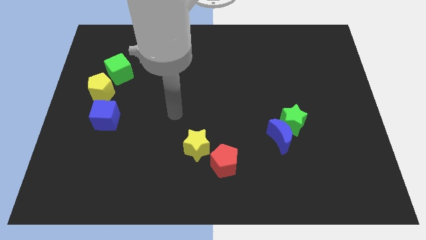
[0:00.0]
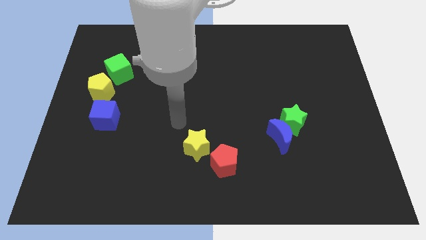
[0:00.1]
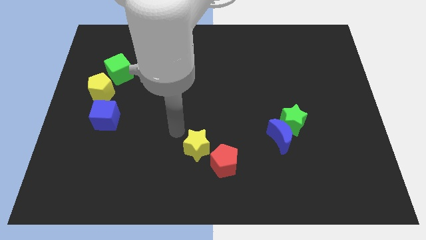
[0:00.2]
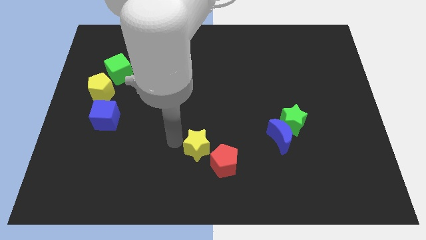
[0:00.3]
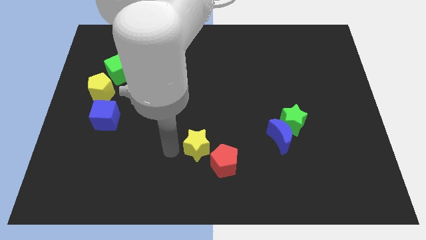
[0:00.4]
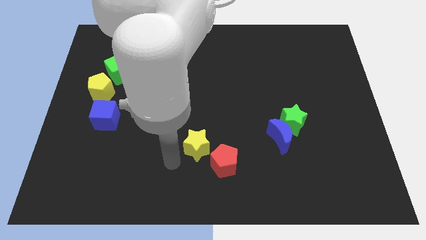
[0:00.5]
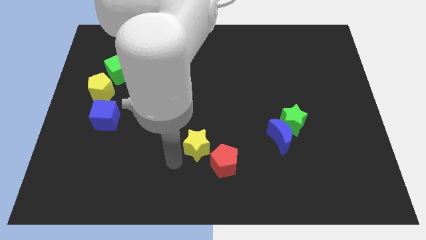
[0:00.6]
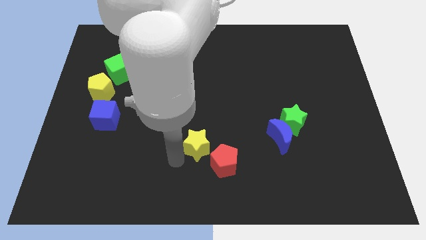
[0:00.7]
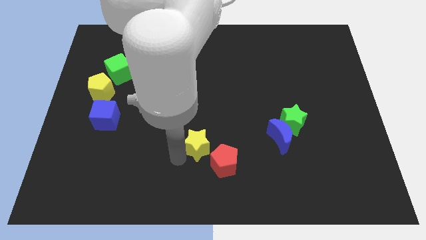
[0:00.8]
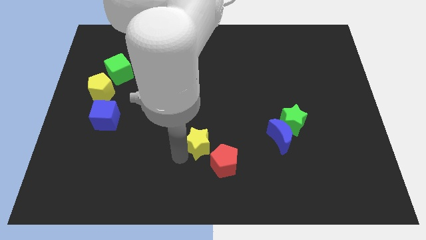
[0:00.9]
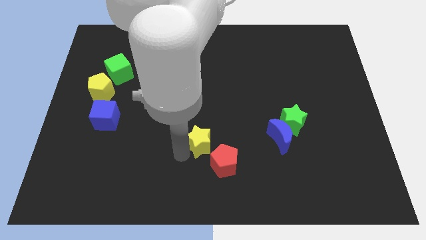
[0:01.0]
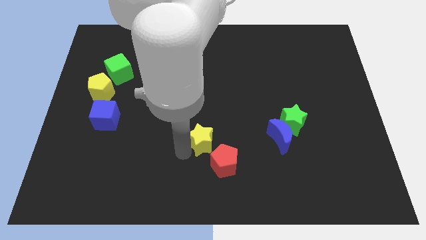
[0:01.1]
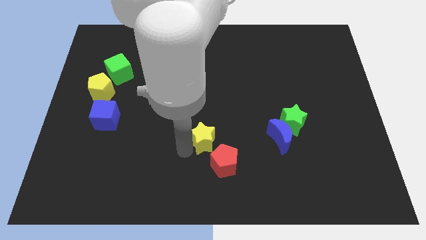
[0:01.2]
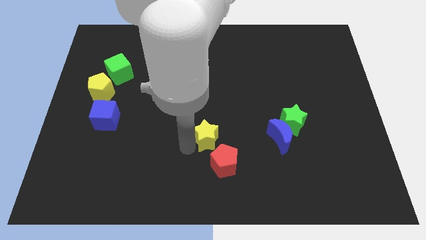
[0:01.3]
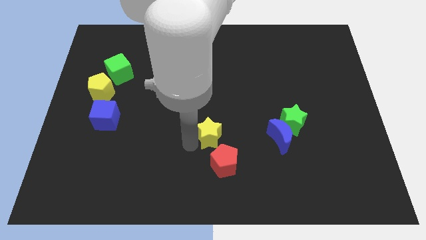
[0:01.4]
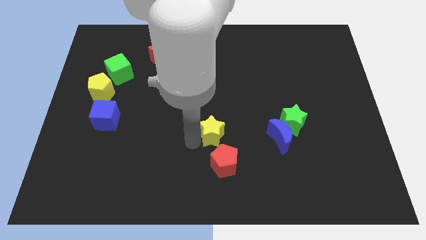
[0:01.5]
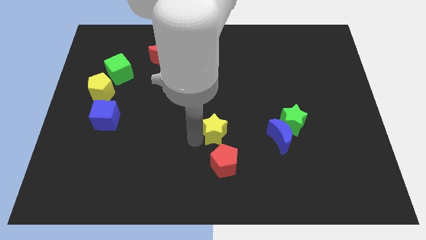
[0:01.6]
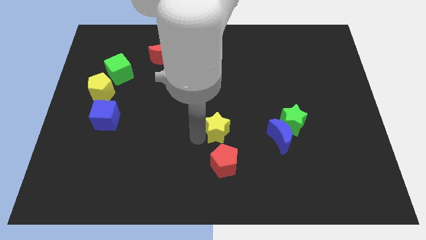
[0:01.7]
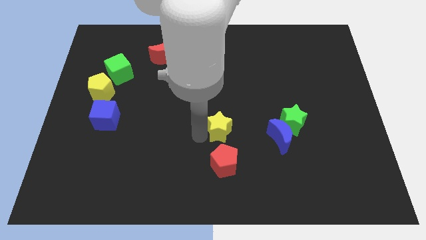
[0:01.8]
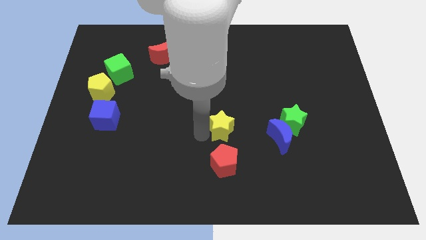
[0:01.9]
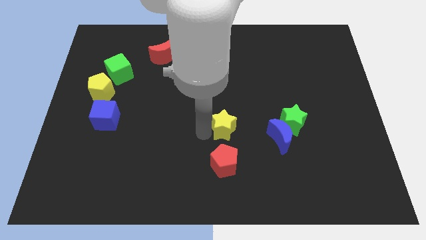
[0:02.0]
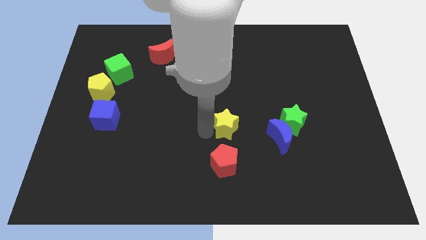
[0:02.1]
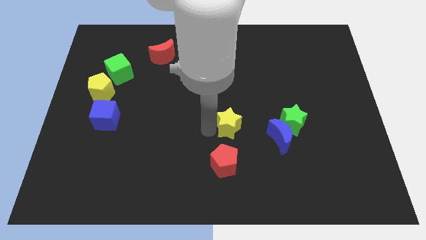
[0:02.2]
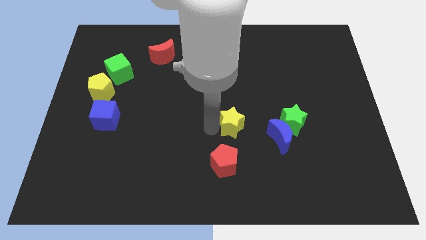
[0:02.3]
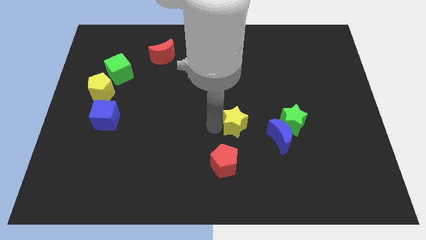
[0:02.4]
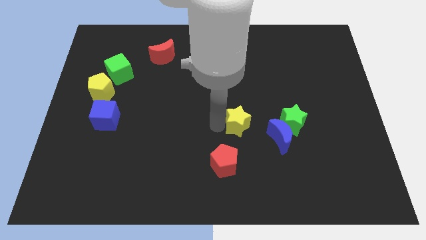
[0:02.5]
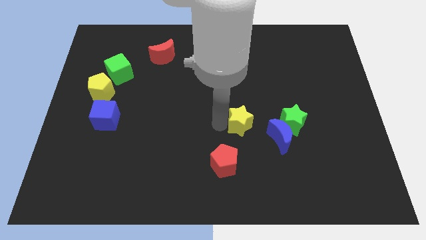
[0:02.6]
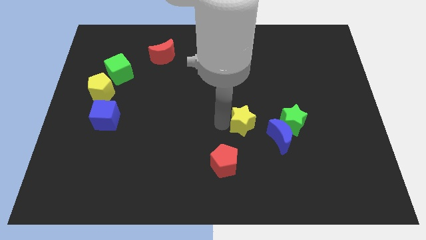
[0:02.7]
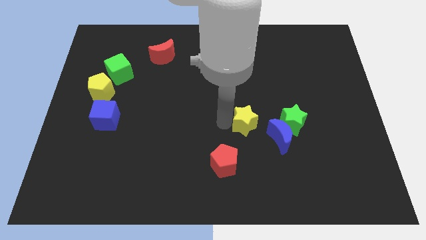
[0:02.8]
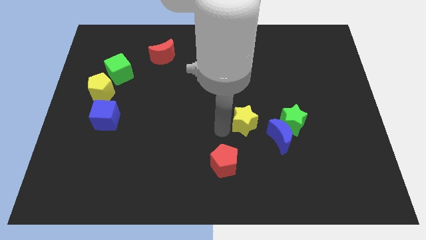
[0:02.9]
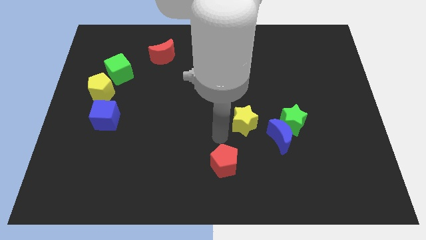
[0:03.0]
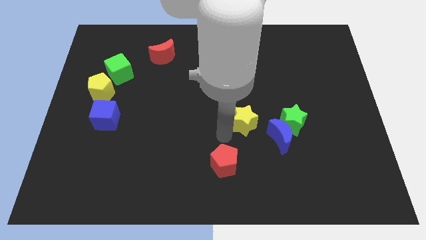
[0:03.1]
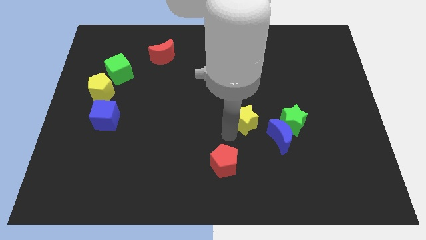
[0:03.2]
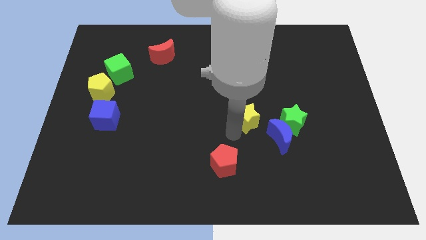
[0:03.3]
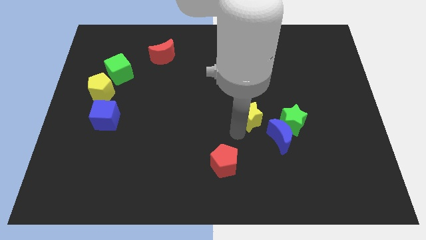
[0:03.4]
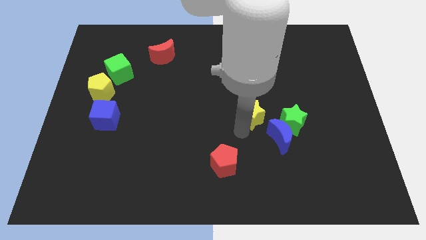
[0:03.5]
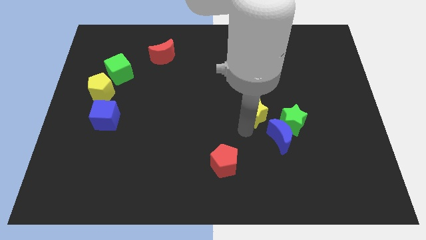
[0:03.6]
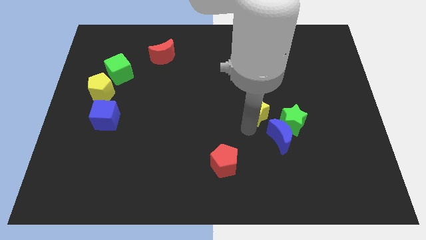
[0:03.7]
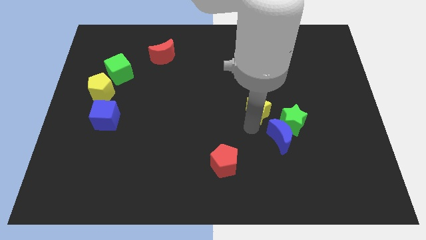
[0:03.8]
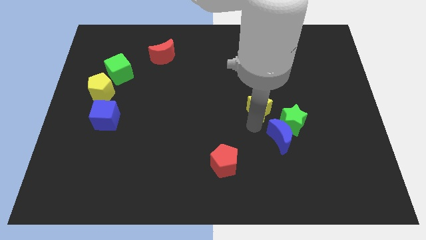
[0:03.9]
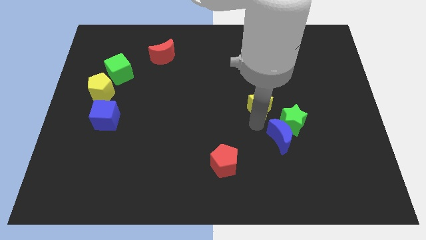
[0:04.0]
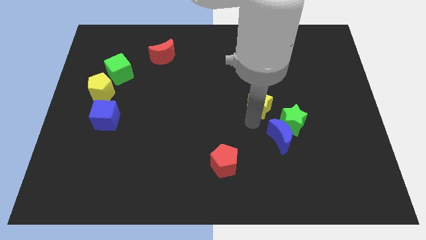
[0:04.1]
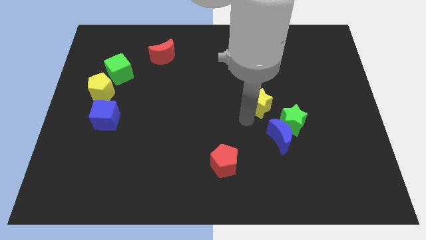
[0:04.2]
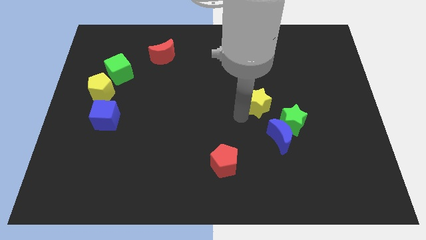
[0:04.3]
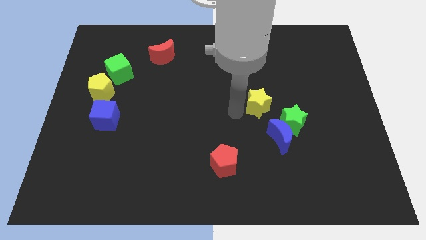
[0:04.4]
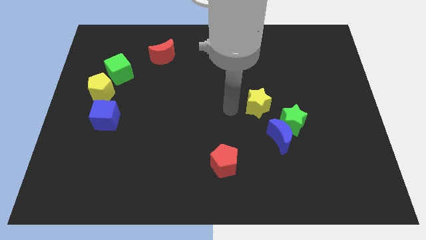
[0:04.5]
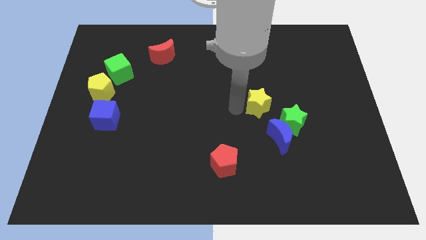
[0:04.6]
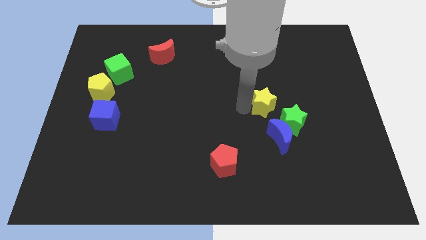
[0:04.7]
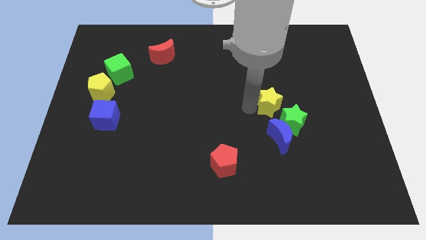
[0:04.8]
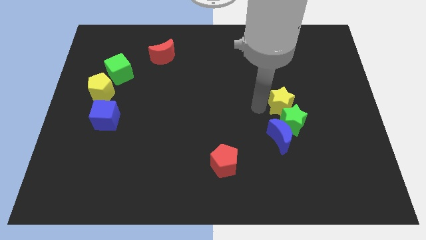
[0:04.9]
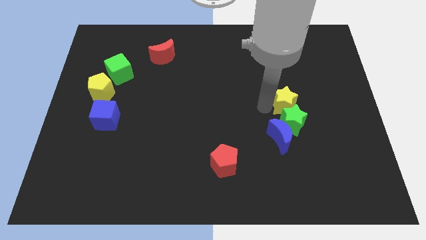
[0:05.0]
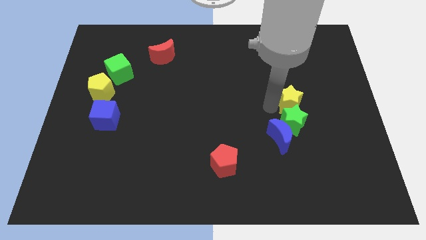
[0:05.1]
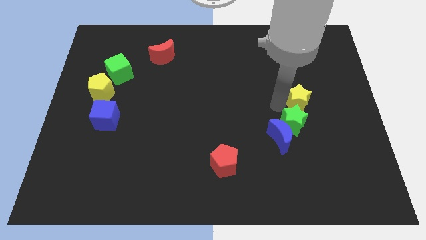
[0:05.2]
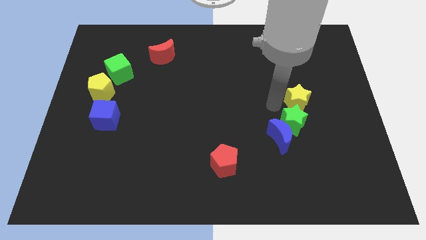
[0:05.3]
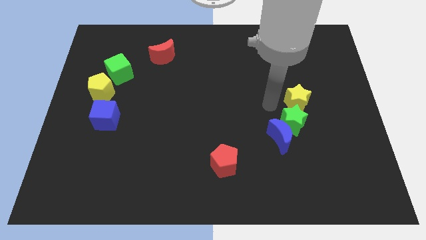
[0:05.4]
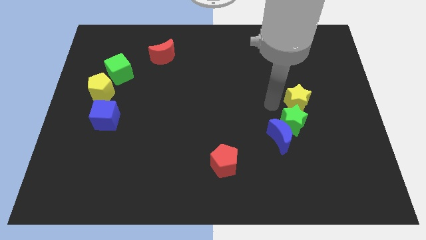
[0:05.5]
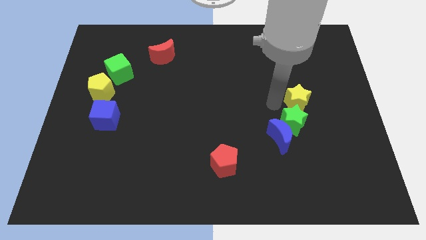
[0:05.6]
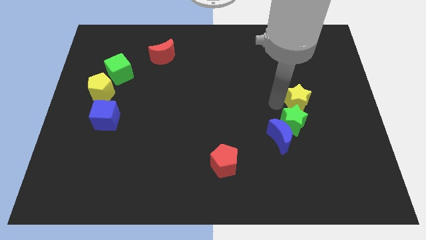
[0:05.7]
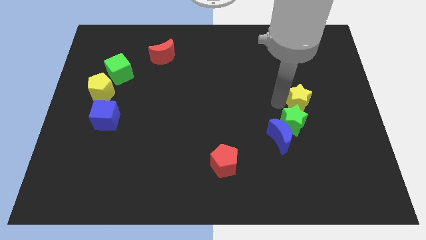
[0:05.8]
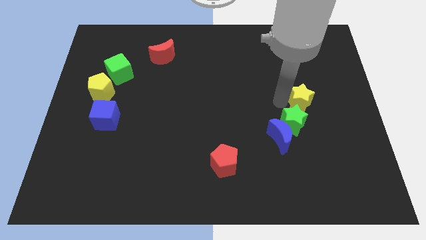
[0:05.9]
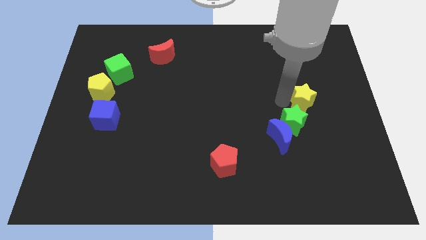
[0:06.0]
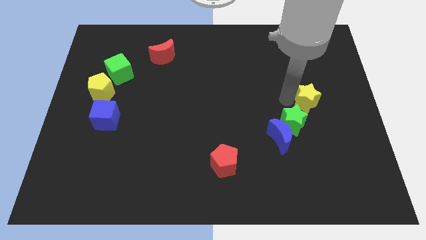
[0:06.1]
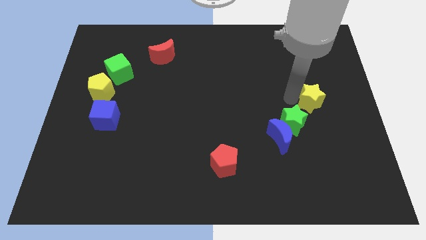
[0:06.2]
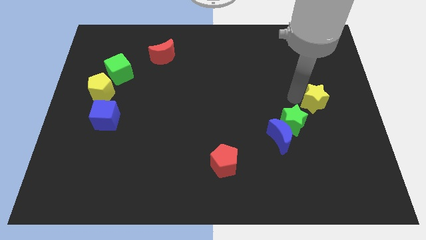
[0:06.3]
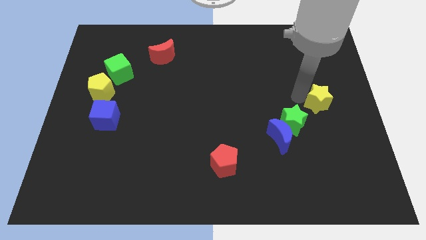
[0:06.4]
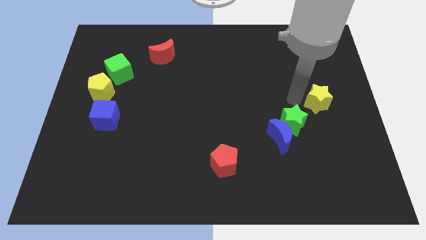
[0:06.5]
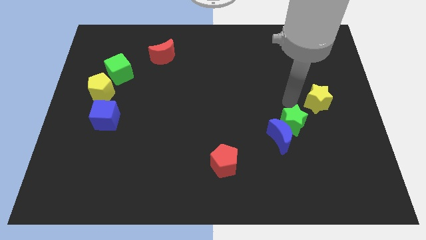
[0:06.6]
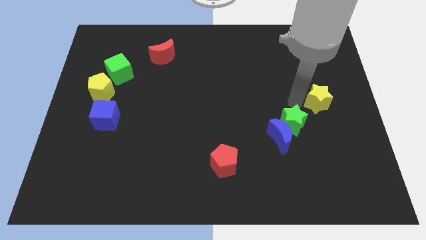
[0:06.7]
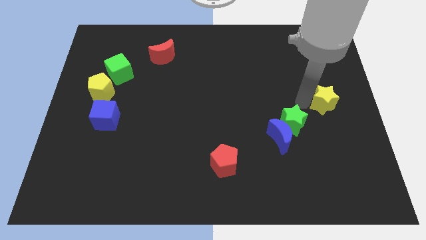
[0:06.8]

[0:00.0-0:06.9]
push the yellow star to the right side of the board
